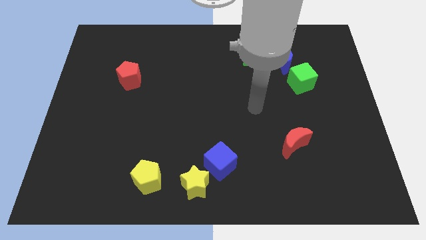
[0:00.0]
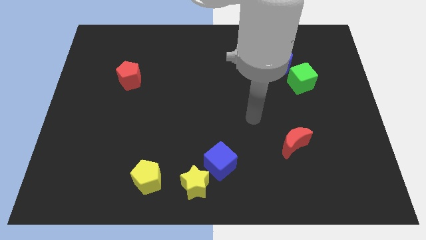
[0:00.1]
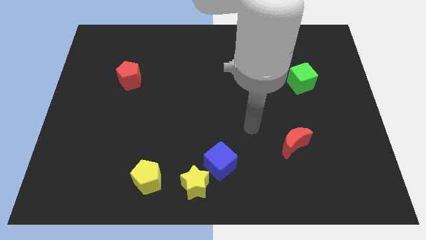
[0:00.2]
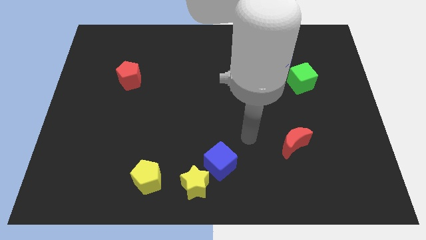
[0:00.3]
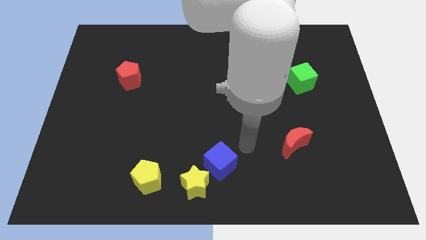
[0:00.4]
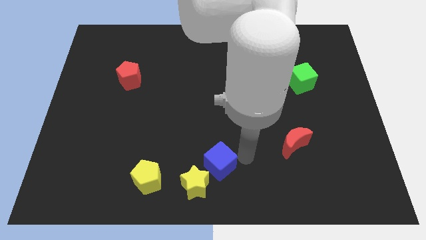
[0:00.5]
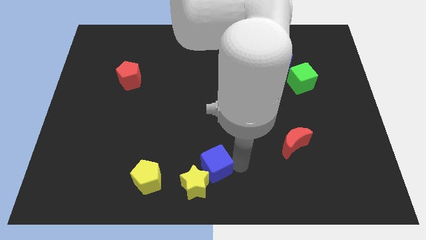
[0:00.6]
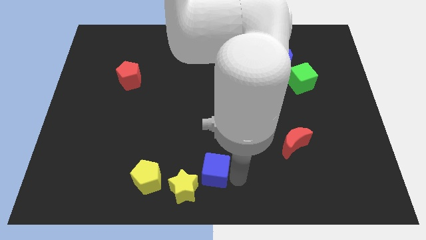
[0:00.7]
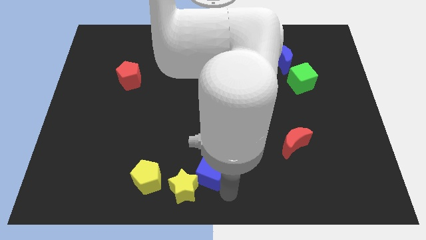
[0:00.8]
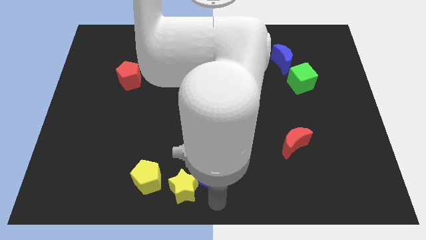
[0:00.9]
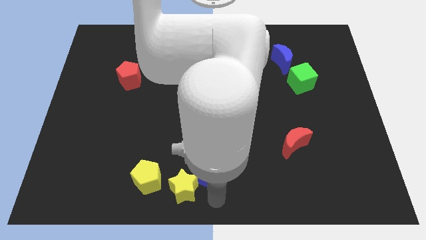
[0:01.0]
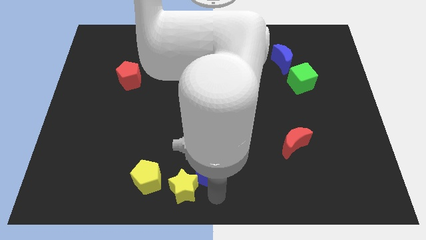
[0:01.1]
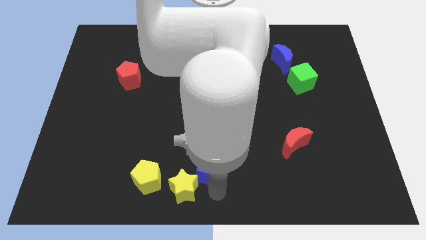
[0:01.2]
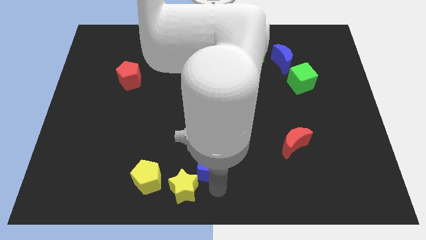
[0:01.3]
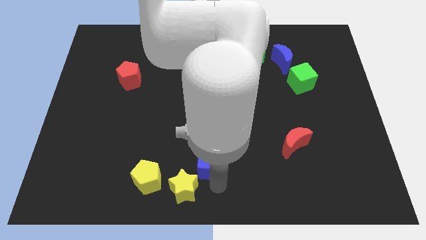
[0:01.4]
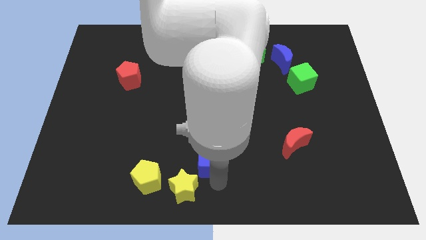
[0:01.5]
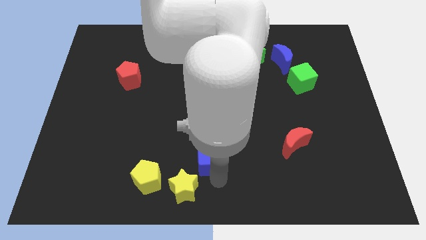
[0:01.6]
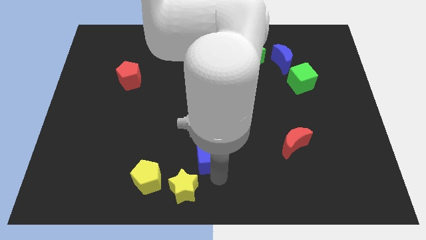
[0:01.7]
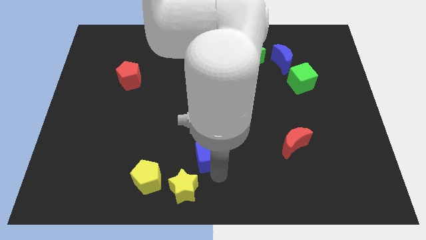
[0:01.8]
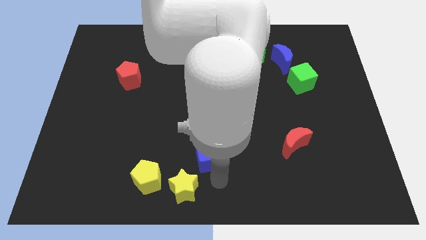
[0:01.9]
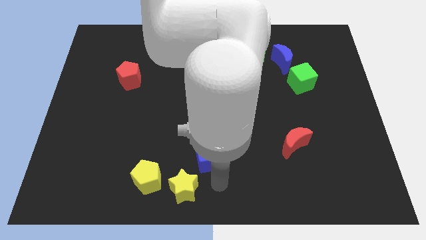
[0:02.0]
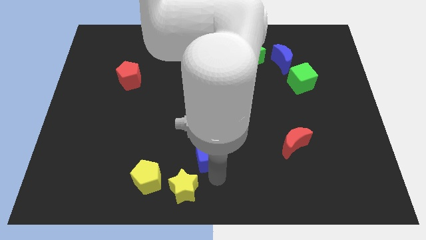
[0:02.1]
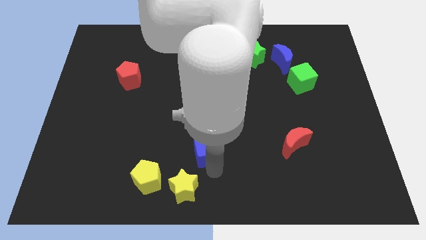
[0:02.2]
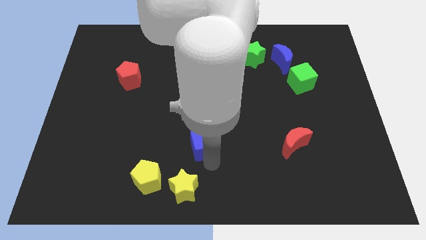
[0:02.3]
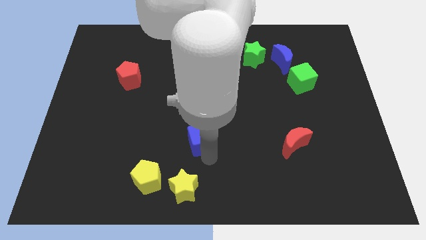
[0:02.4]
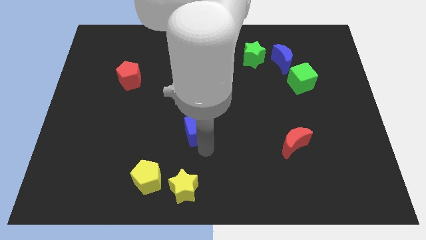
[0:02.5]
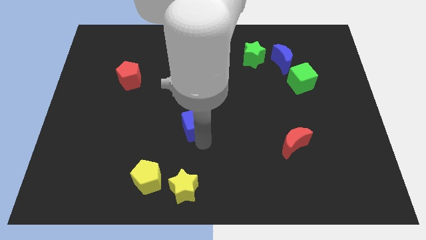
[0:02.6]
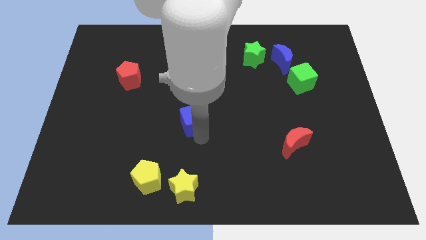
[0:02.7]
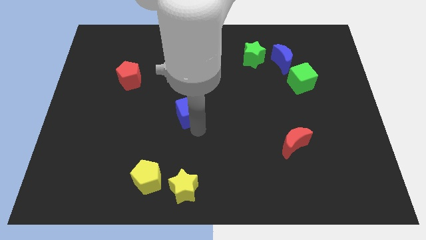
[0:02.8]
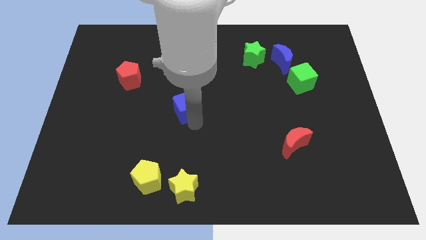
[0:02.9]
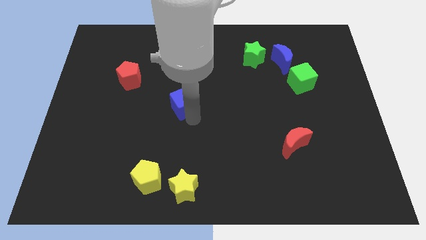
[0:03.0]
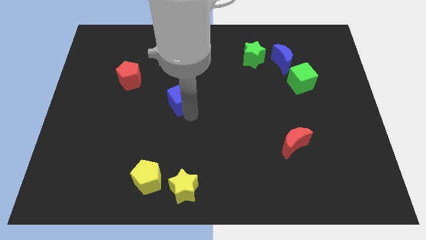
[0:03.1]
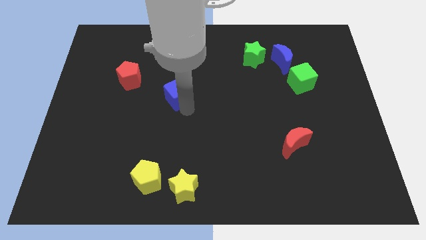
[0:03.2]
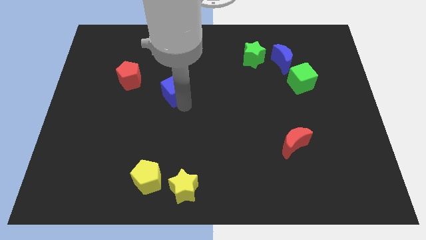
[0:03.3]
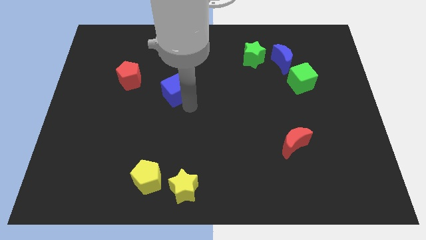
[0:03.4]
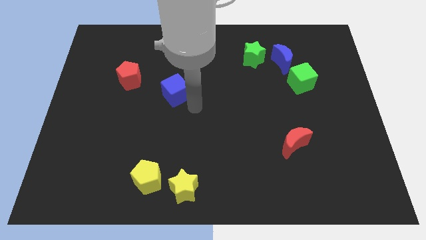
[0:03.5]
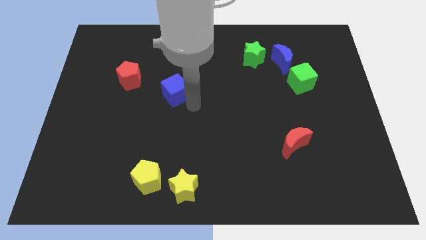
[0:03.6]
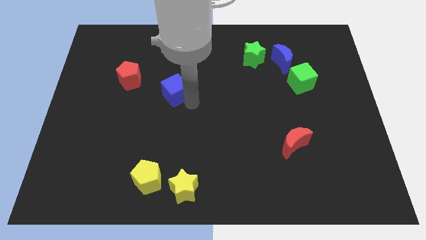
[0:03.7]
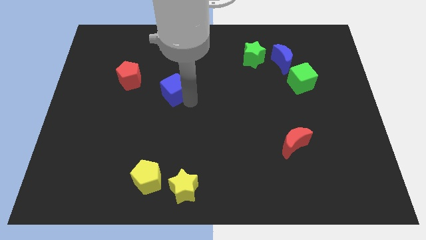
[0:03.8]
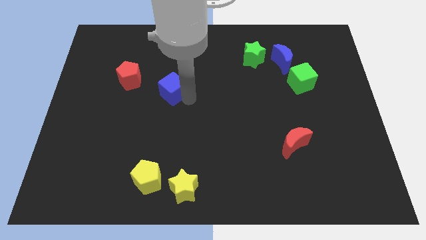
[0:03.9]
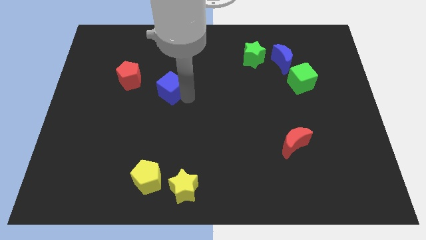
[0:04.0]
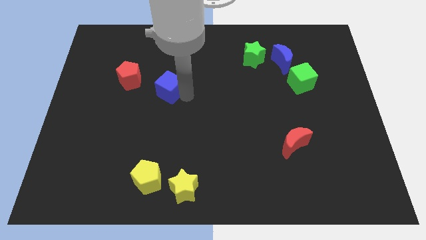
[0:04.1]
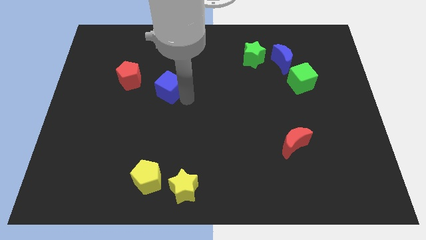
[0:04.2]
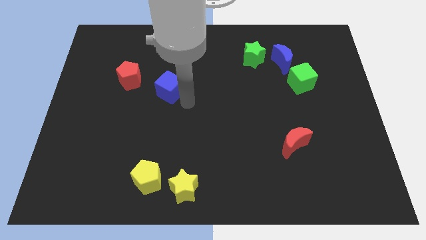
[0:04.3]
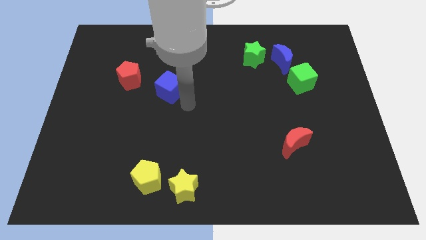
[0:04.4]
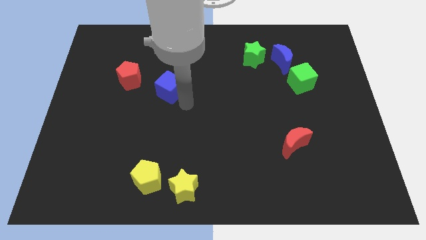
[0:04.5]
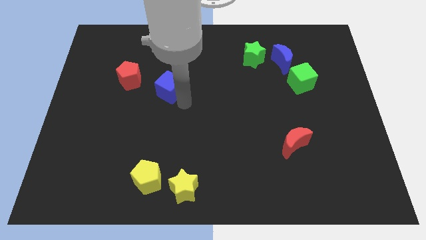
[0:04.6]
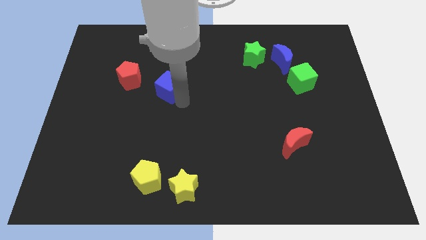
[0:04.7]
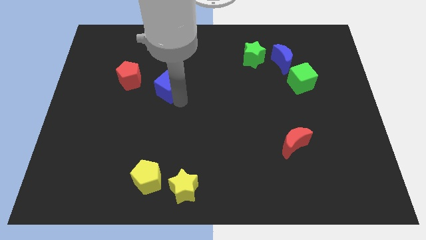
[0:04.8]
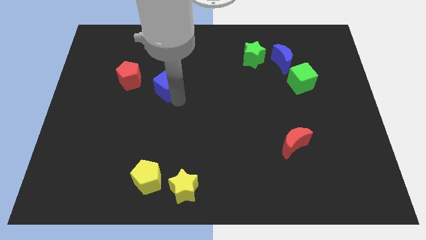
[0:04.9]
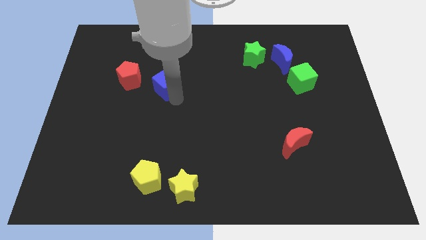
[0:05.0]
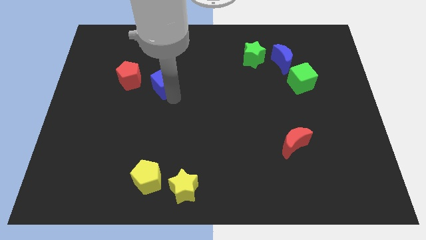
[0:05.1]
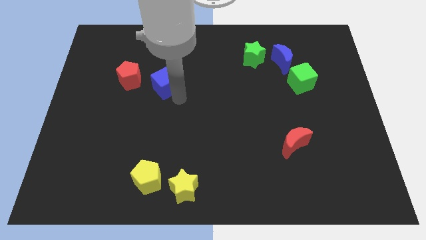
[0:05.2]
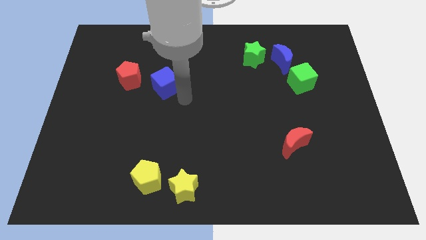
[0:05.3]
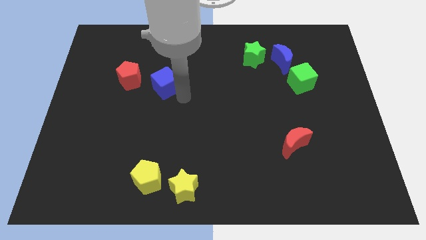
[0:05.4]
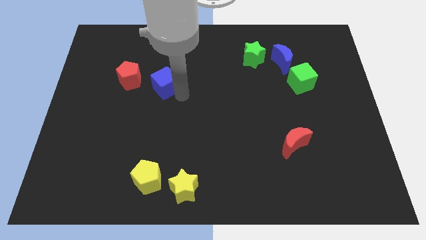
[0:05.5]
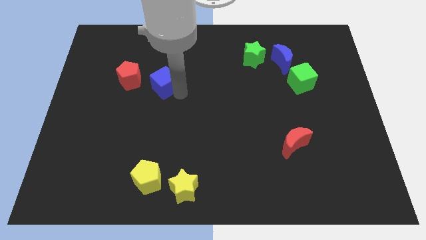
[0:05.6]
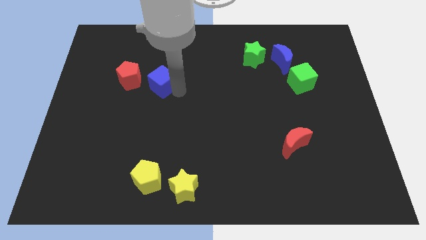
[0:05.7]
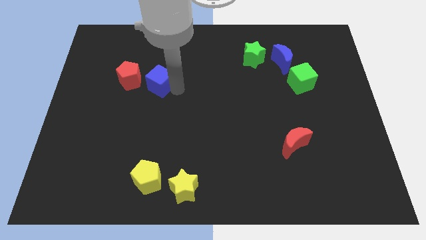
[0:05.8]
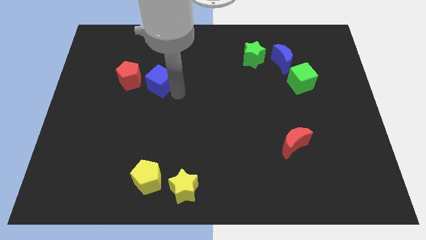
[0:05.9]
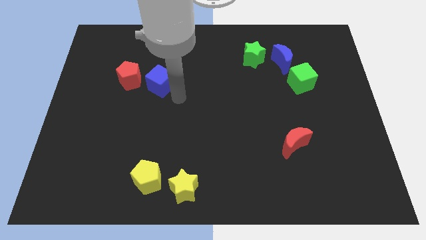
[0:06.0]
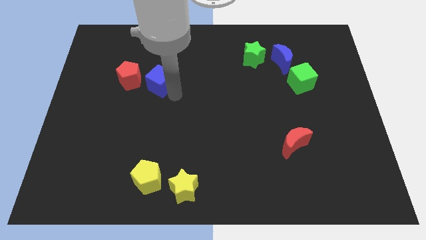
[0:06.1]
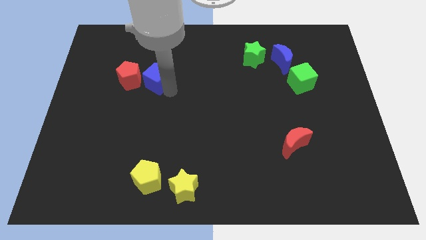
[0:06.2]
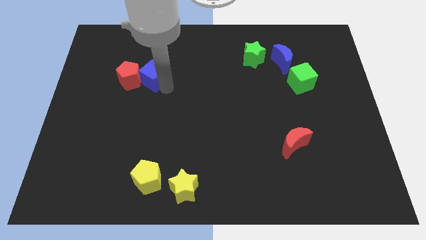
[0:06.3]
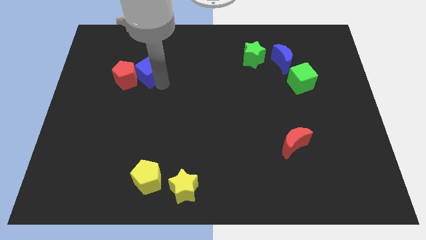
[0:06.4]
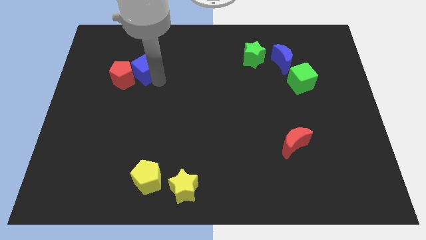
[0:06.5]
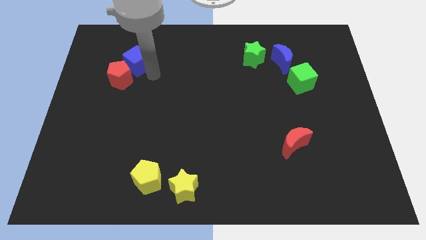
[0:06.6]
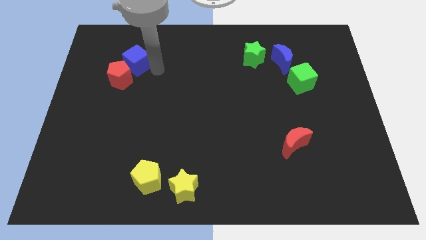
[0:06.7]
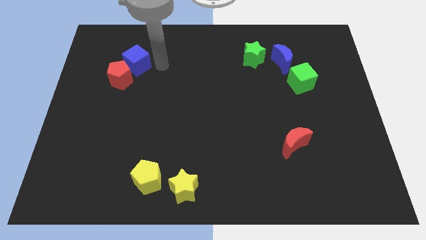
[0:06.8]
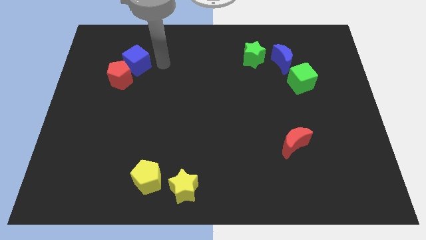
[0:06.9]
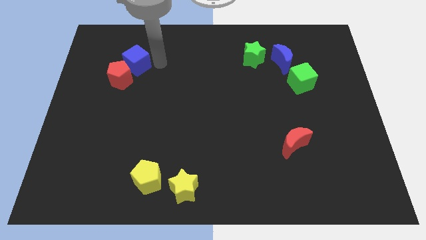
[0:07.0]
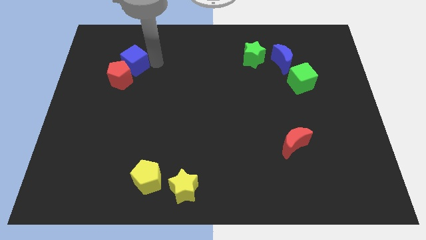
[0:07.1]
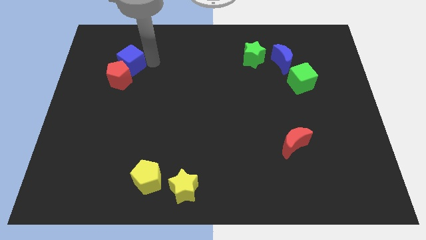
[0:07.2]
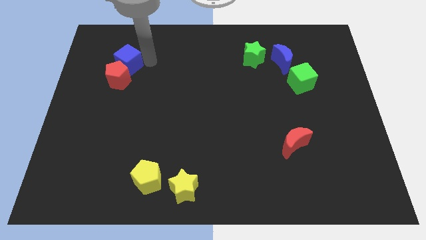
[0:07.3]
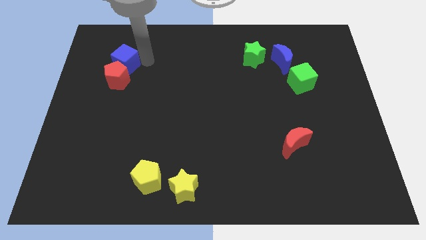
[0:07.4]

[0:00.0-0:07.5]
put the blue cube diagonally up and to the left of the red pentagon
